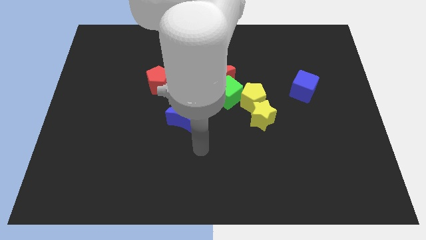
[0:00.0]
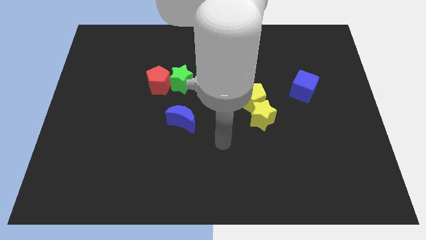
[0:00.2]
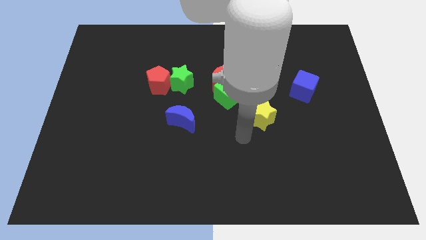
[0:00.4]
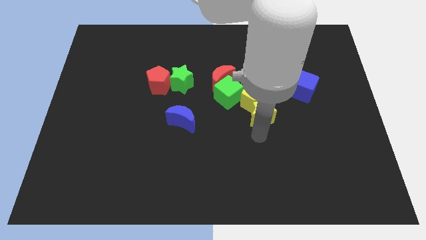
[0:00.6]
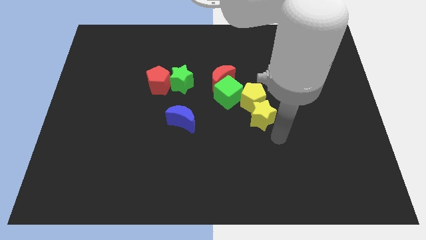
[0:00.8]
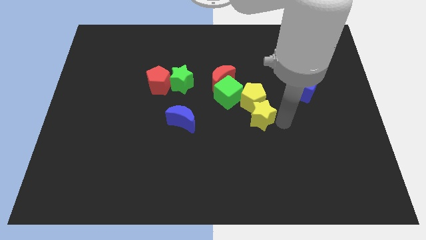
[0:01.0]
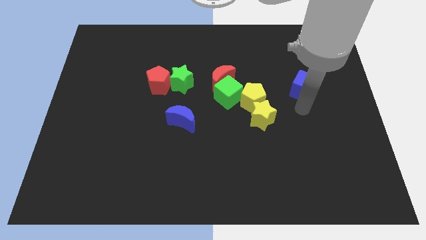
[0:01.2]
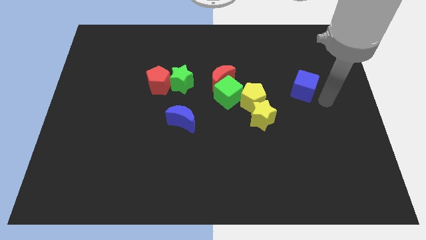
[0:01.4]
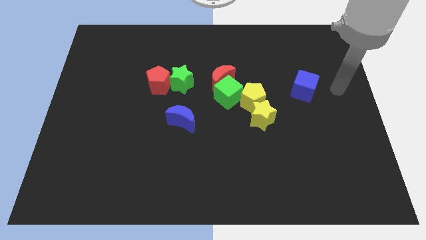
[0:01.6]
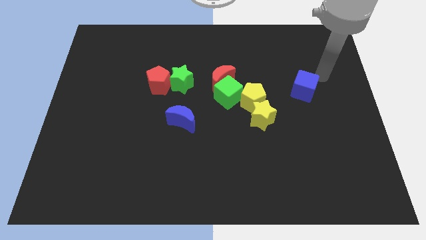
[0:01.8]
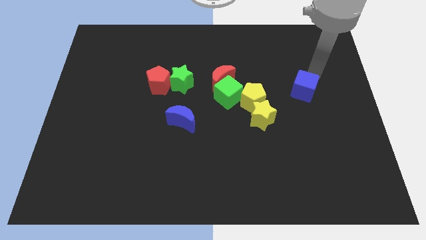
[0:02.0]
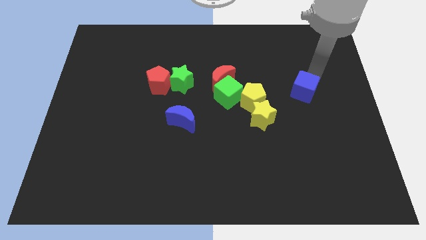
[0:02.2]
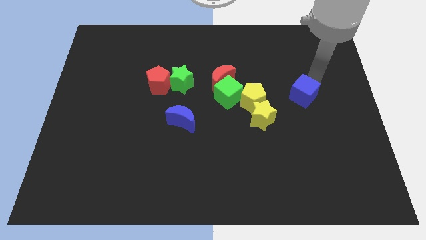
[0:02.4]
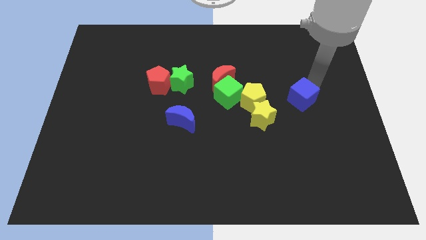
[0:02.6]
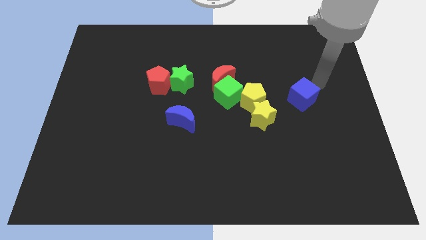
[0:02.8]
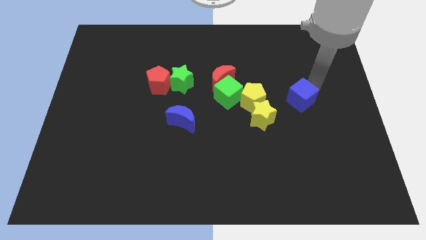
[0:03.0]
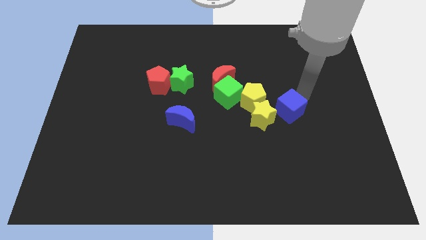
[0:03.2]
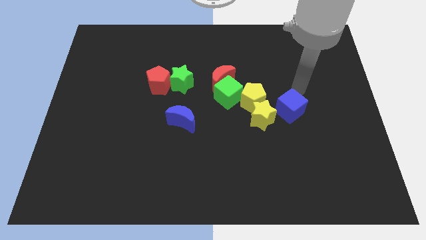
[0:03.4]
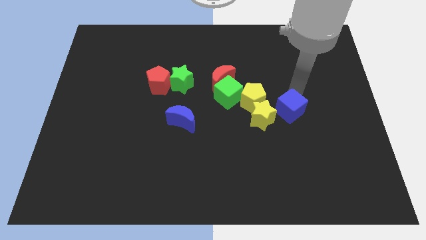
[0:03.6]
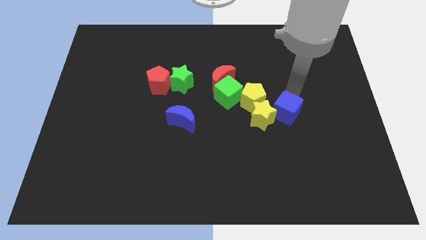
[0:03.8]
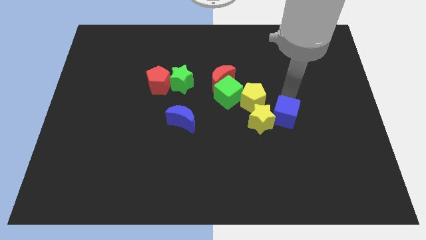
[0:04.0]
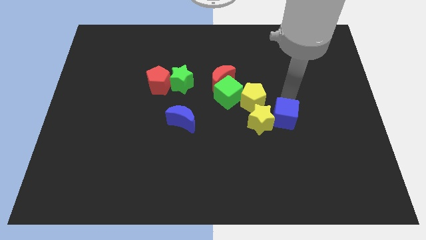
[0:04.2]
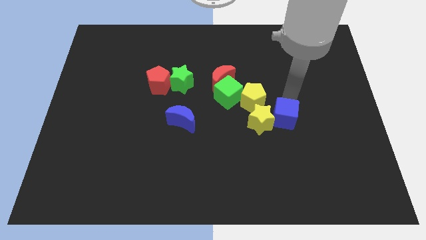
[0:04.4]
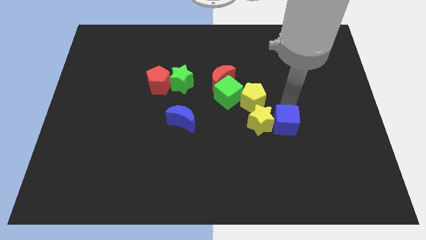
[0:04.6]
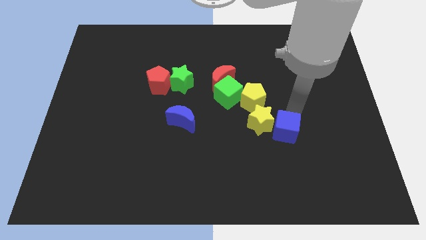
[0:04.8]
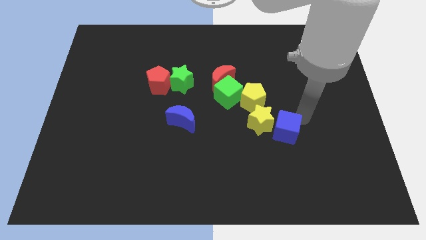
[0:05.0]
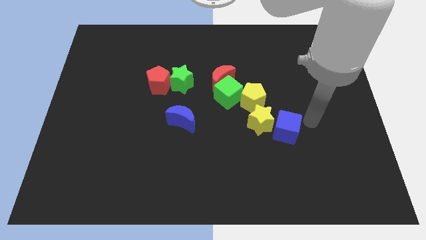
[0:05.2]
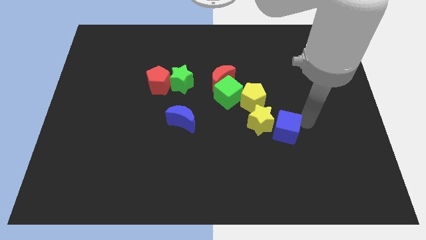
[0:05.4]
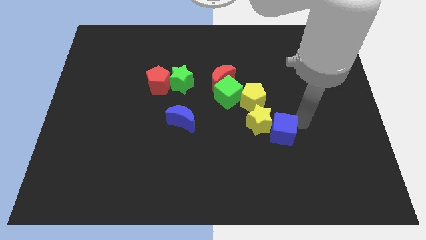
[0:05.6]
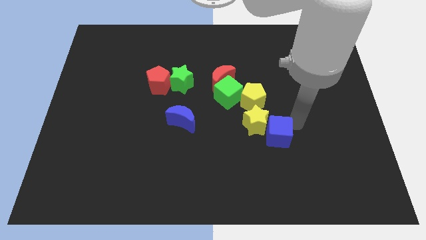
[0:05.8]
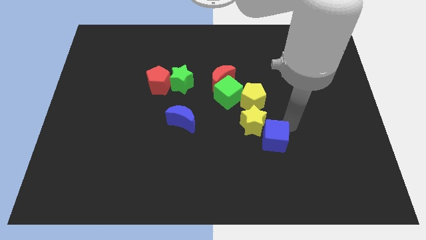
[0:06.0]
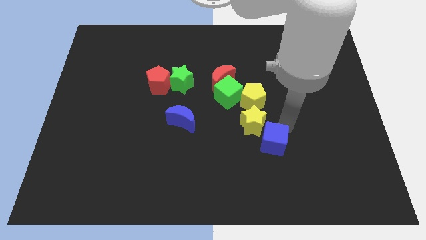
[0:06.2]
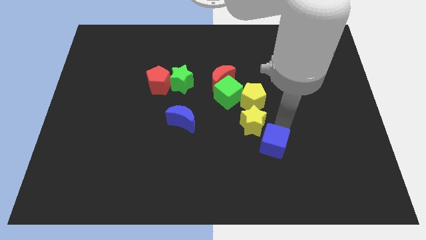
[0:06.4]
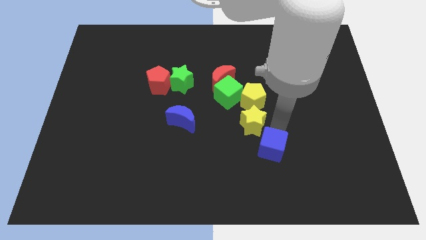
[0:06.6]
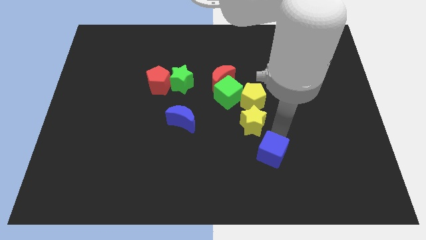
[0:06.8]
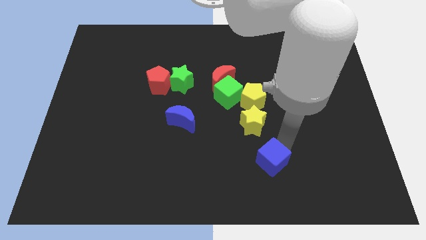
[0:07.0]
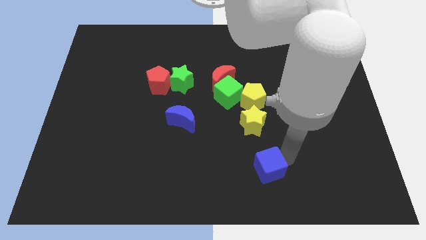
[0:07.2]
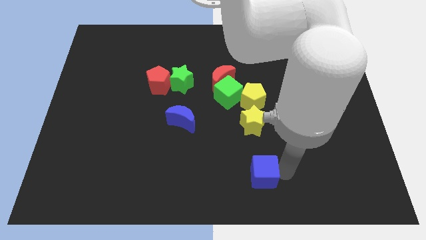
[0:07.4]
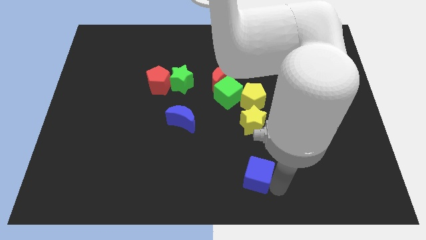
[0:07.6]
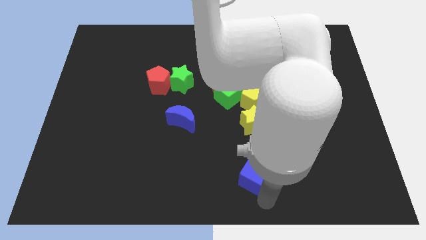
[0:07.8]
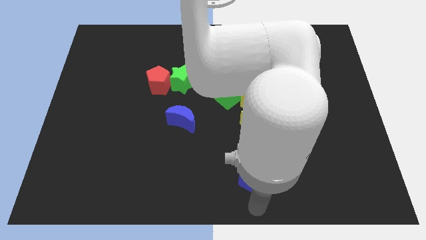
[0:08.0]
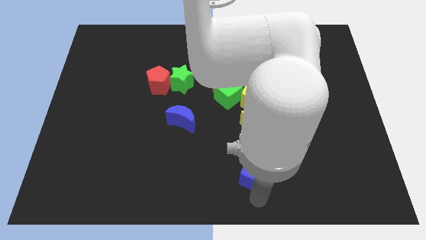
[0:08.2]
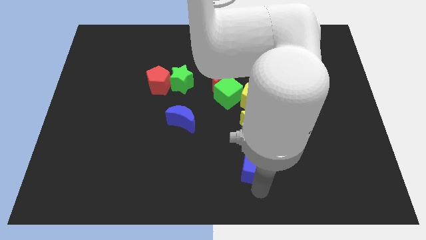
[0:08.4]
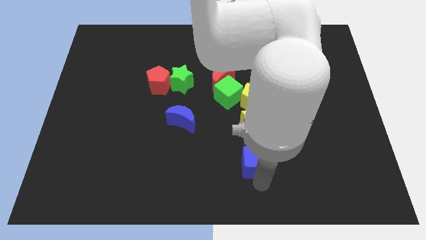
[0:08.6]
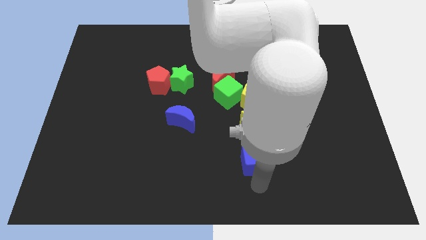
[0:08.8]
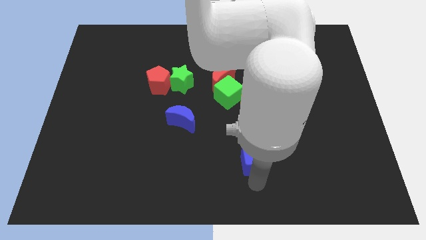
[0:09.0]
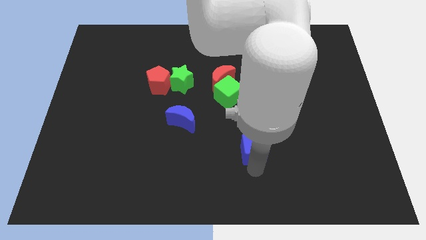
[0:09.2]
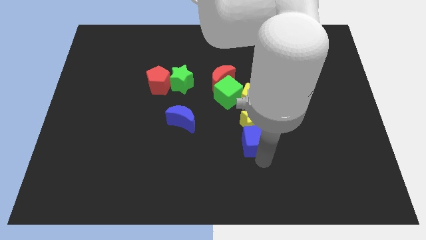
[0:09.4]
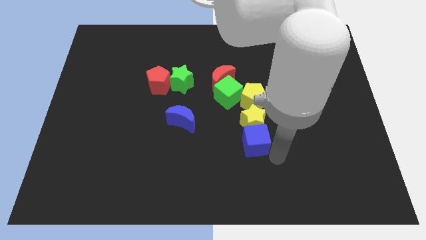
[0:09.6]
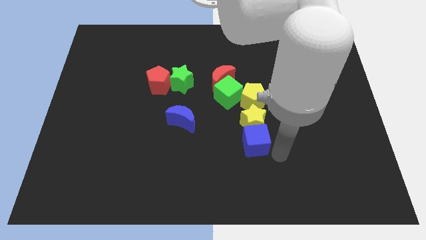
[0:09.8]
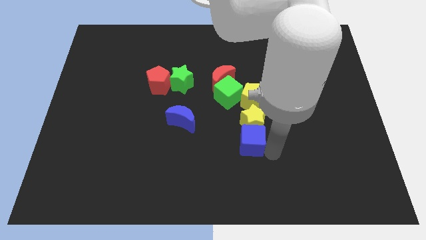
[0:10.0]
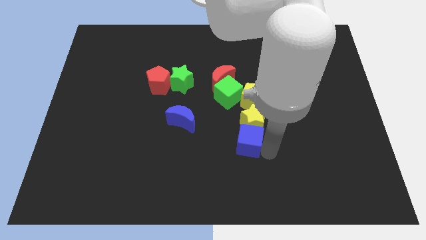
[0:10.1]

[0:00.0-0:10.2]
push the blue cube below the green cube

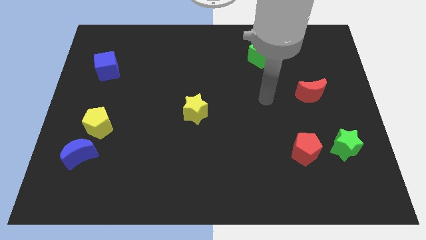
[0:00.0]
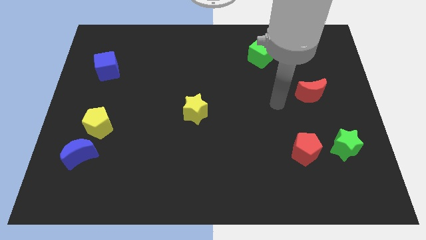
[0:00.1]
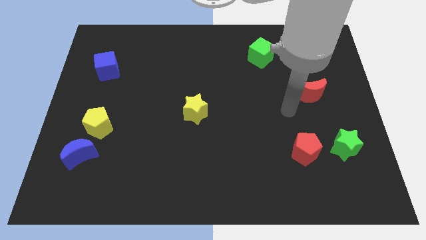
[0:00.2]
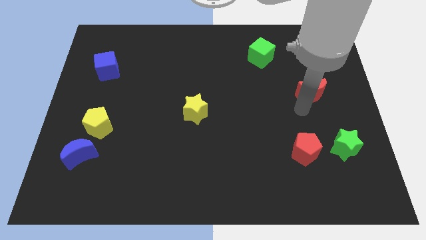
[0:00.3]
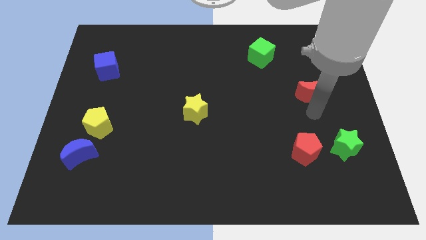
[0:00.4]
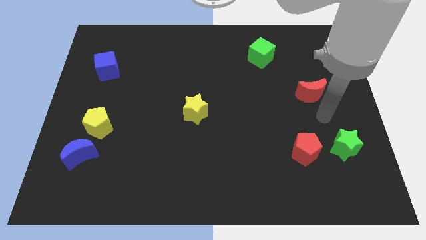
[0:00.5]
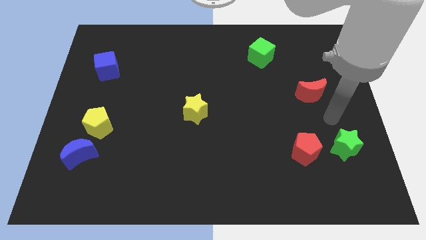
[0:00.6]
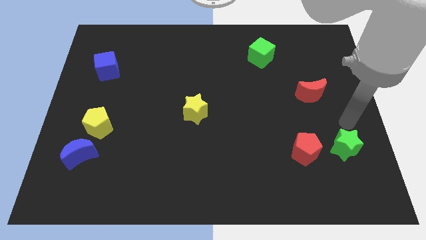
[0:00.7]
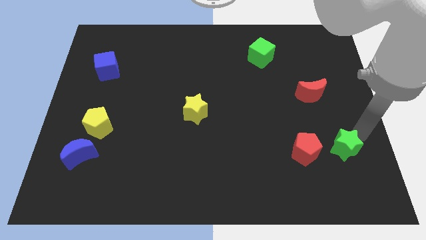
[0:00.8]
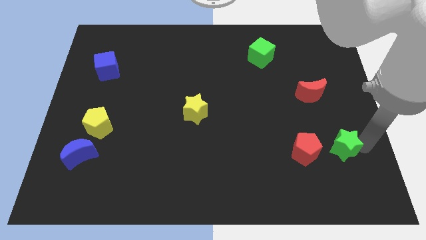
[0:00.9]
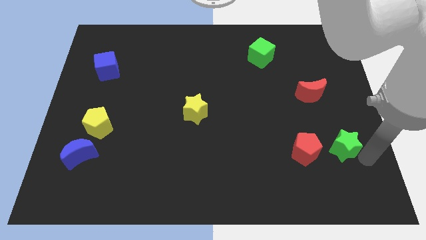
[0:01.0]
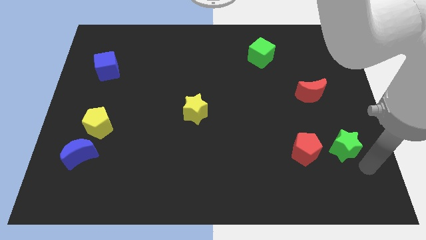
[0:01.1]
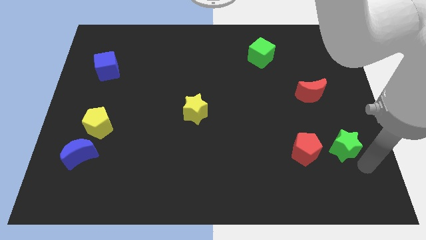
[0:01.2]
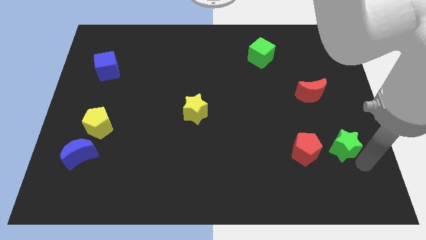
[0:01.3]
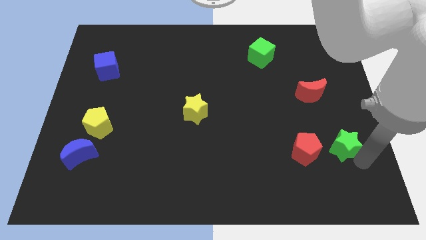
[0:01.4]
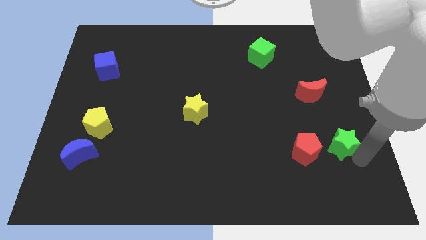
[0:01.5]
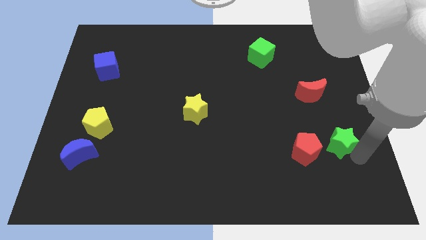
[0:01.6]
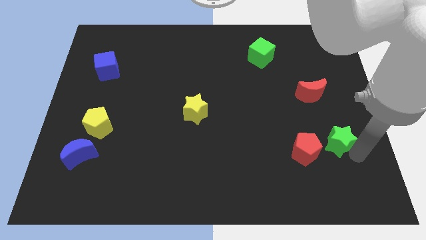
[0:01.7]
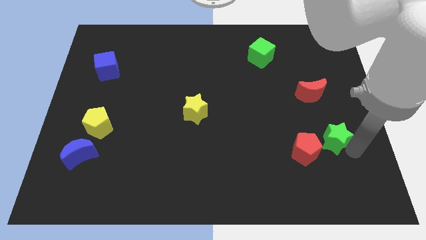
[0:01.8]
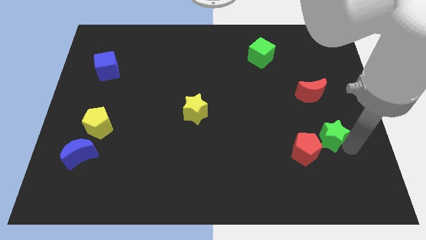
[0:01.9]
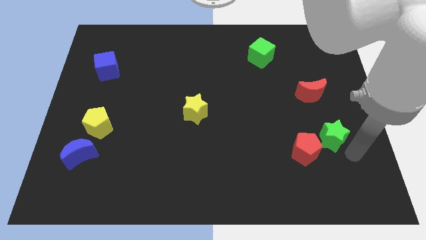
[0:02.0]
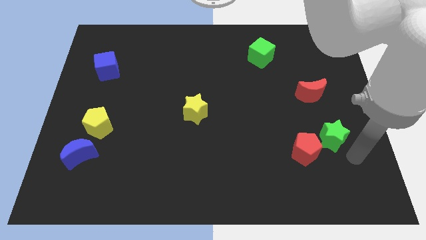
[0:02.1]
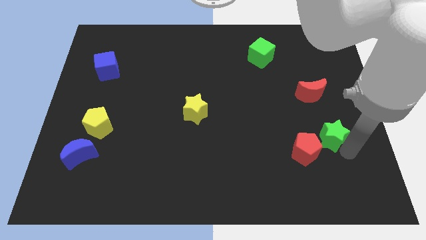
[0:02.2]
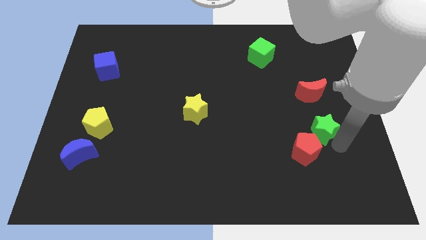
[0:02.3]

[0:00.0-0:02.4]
push the green star above the red pentagon
